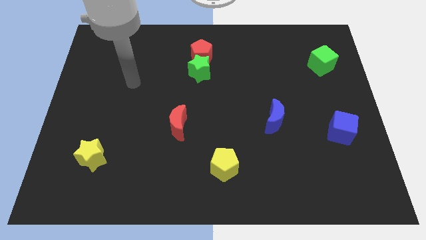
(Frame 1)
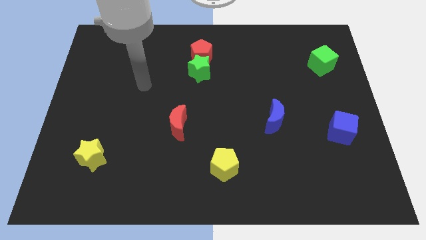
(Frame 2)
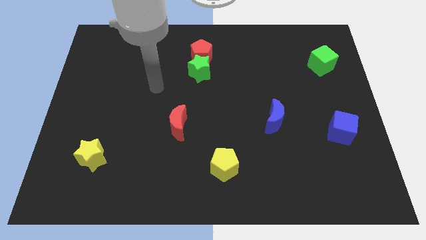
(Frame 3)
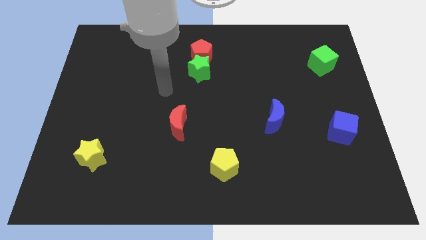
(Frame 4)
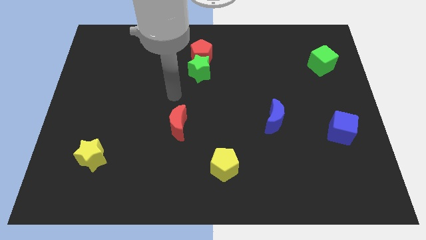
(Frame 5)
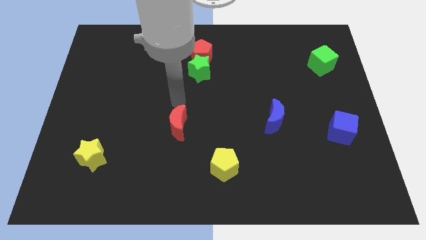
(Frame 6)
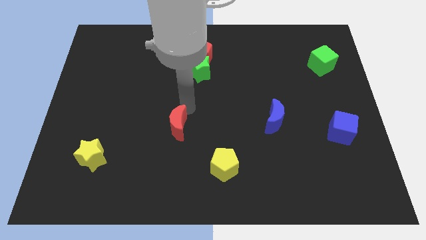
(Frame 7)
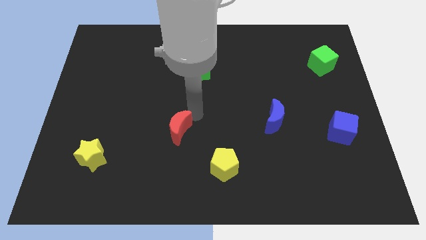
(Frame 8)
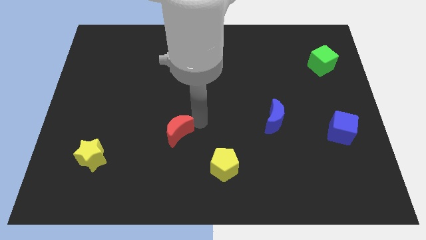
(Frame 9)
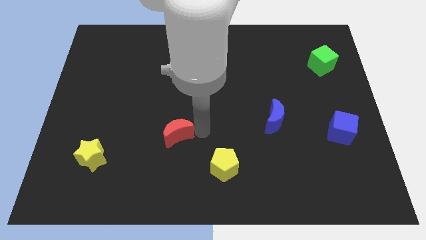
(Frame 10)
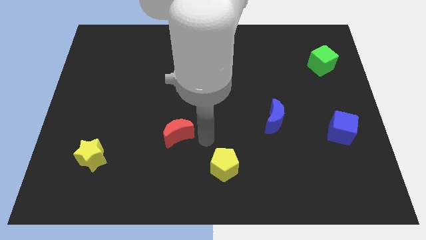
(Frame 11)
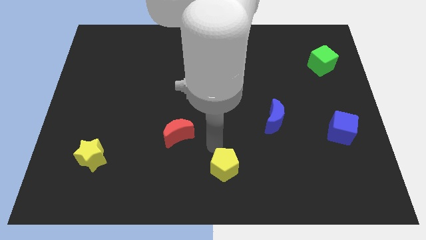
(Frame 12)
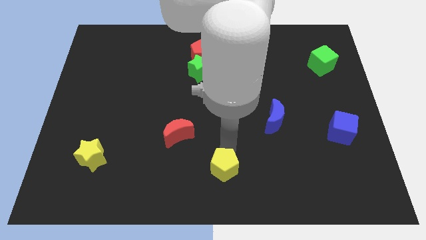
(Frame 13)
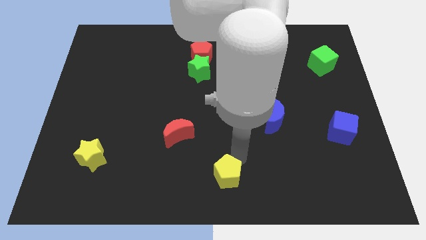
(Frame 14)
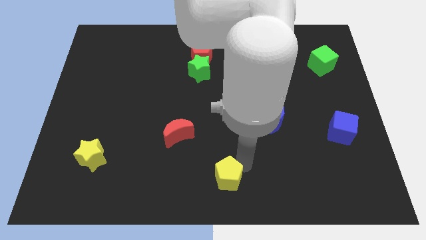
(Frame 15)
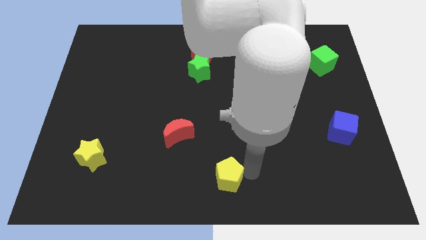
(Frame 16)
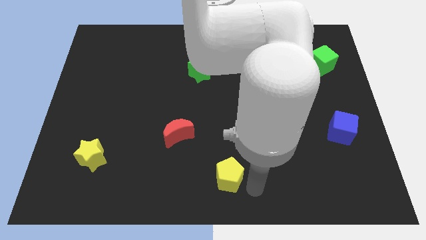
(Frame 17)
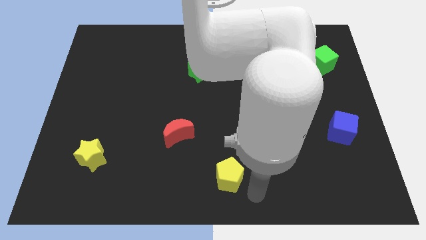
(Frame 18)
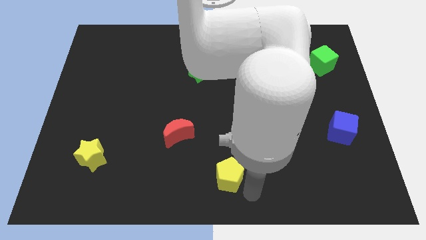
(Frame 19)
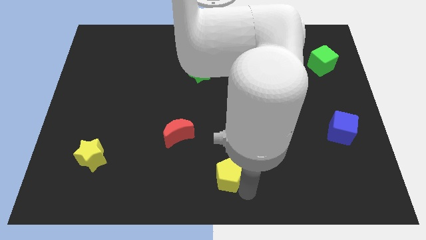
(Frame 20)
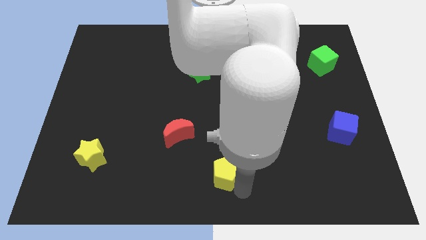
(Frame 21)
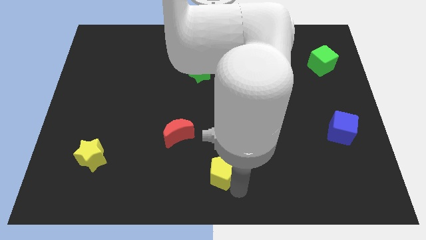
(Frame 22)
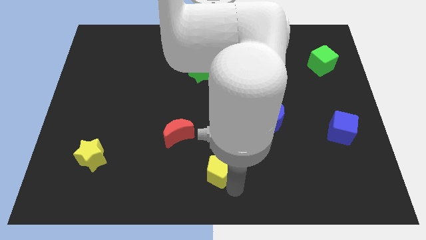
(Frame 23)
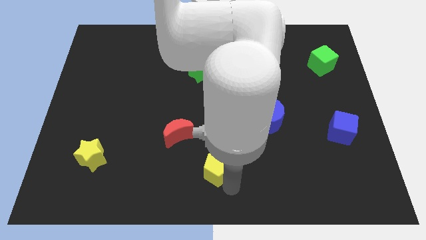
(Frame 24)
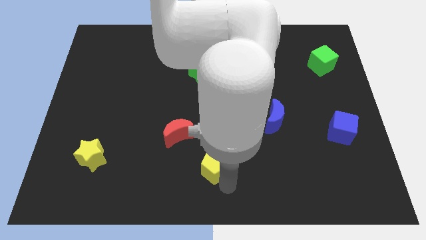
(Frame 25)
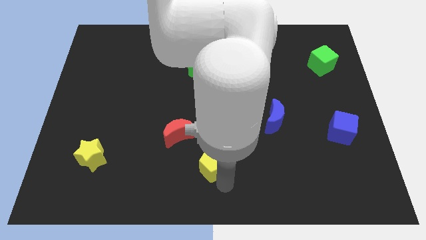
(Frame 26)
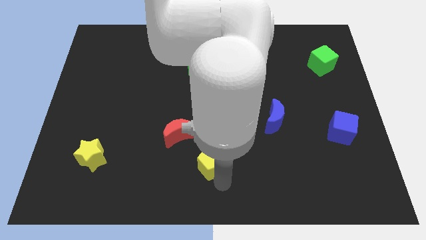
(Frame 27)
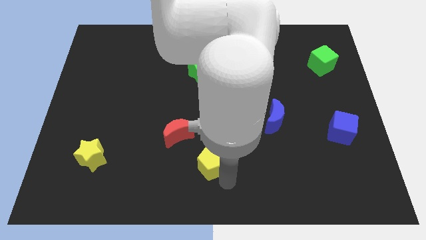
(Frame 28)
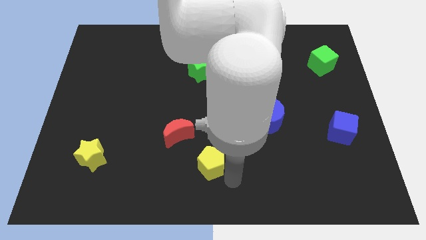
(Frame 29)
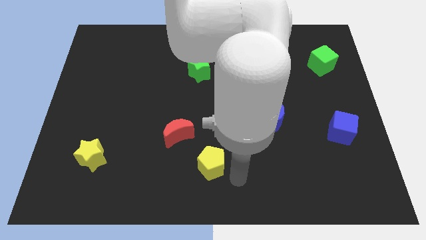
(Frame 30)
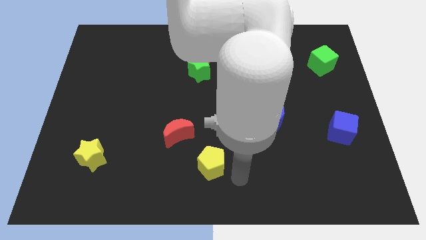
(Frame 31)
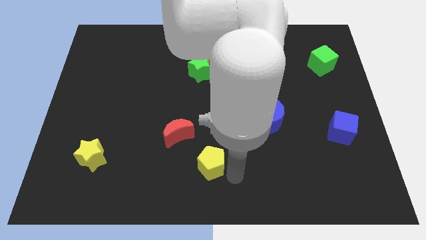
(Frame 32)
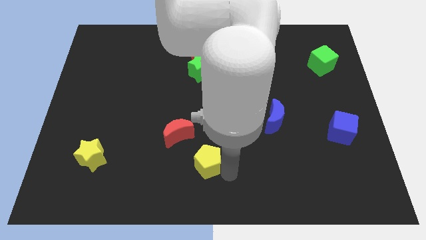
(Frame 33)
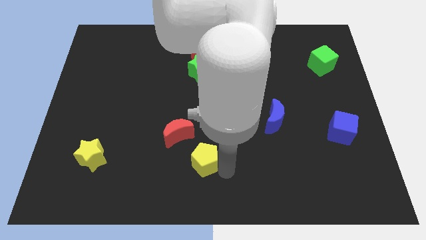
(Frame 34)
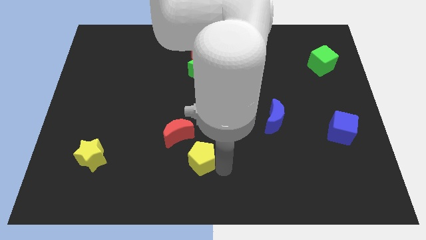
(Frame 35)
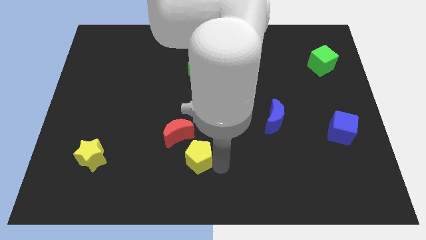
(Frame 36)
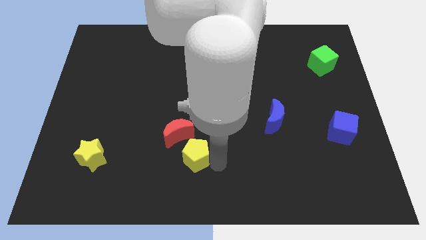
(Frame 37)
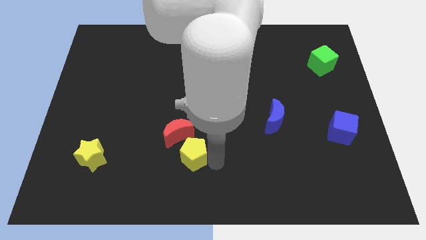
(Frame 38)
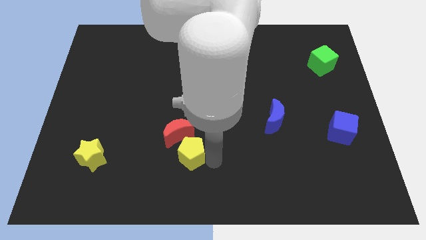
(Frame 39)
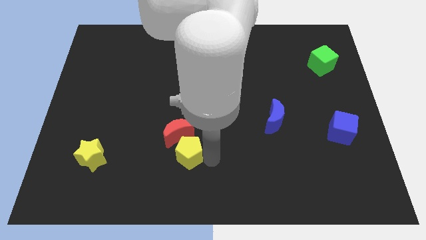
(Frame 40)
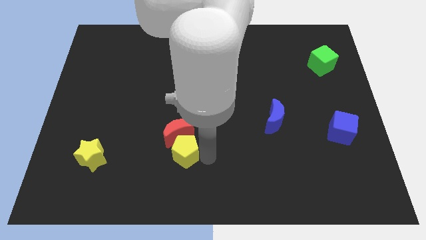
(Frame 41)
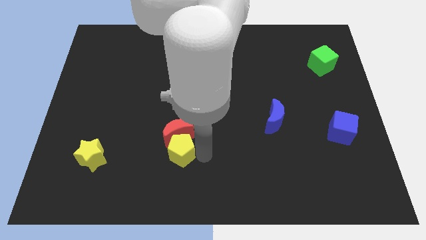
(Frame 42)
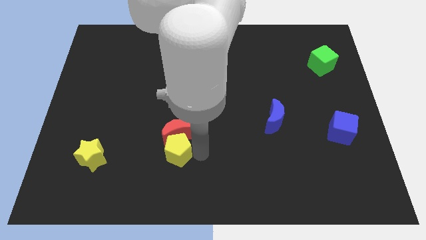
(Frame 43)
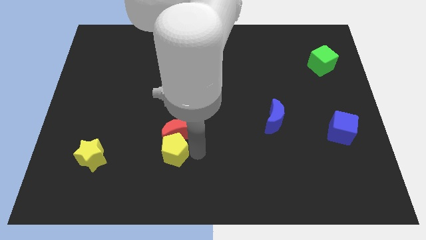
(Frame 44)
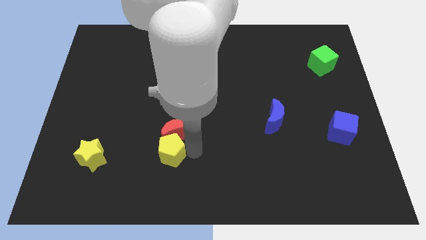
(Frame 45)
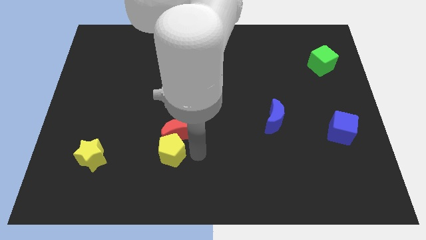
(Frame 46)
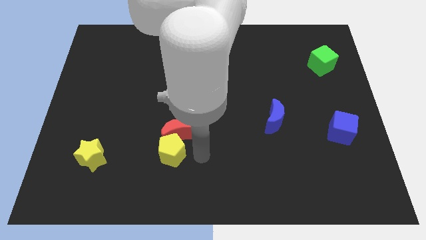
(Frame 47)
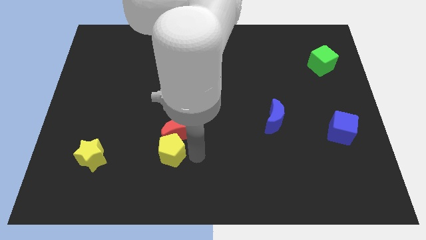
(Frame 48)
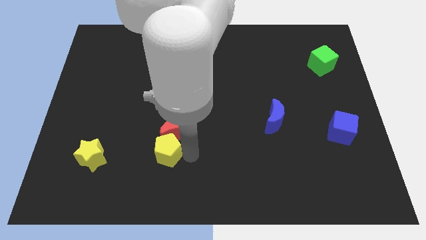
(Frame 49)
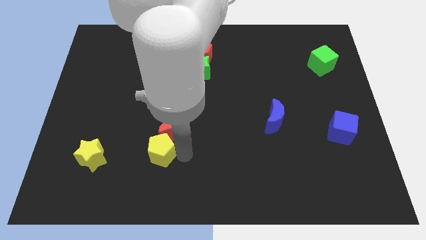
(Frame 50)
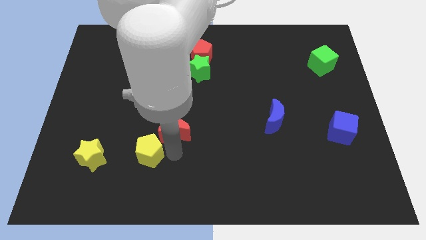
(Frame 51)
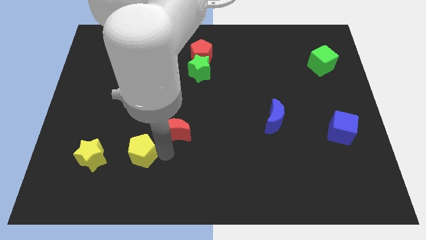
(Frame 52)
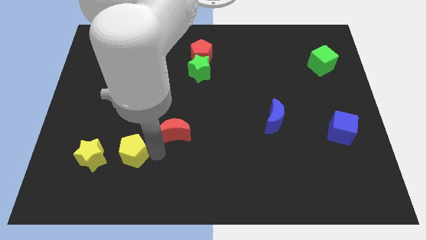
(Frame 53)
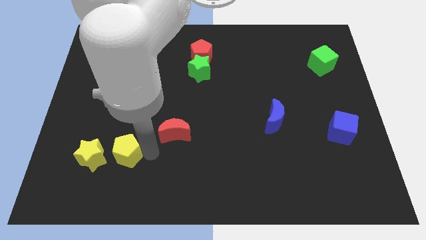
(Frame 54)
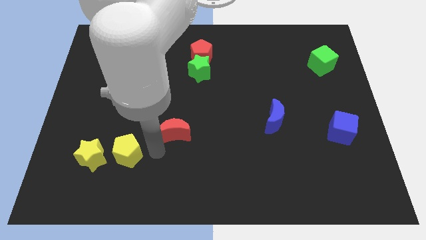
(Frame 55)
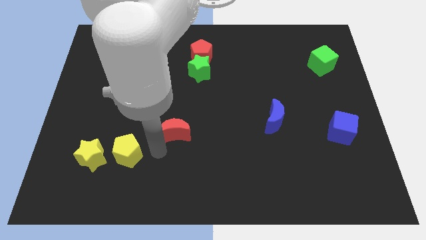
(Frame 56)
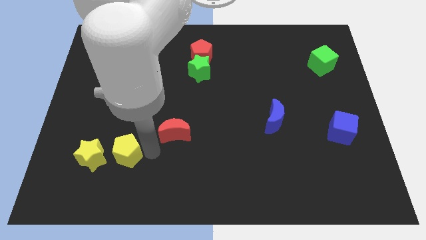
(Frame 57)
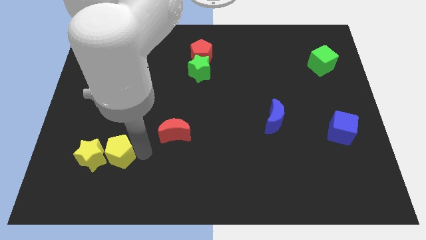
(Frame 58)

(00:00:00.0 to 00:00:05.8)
slide the yellow pentagon next to the yellow star

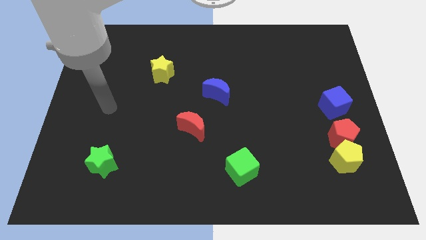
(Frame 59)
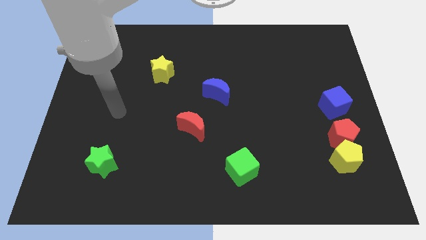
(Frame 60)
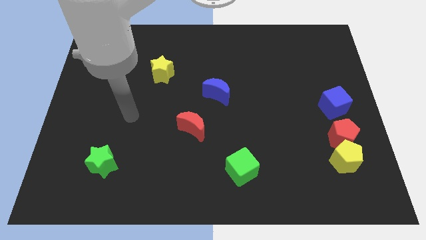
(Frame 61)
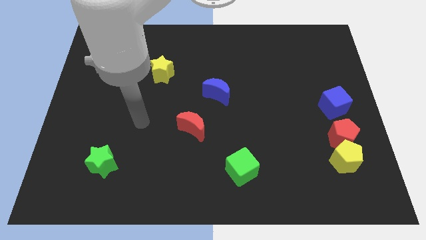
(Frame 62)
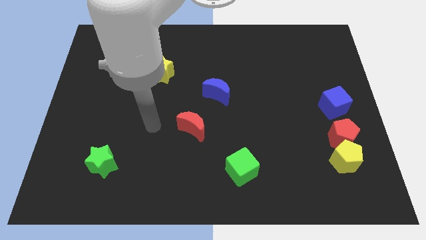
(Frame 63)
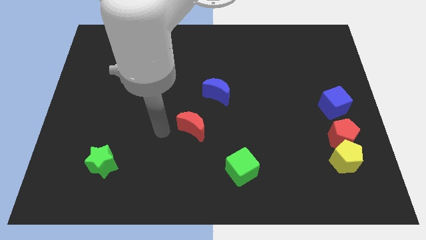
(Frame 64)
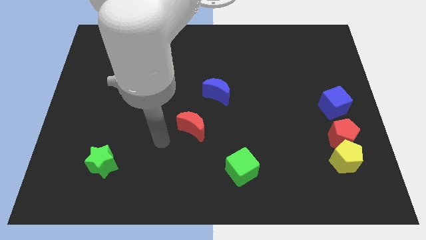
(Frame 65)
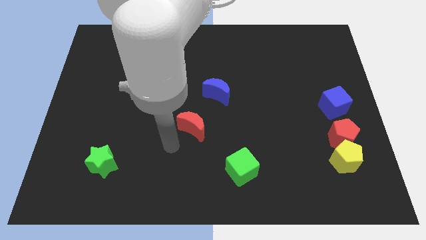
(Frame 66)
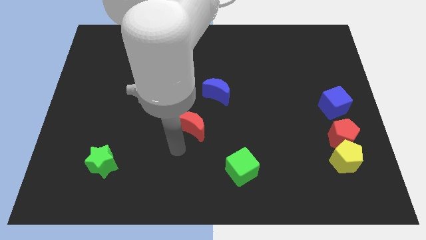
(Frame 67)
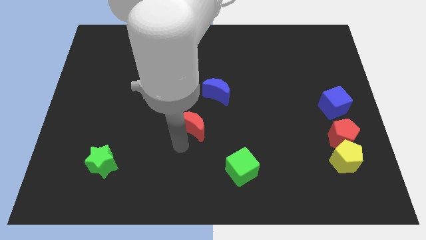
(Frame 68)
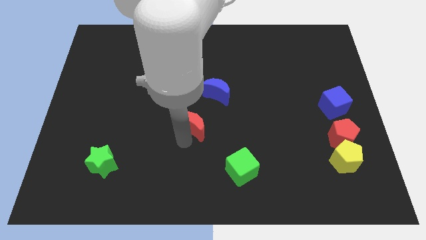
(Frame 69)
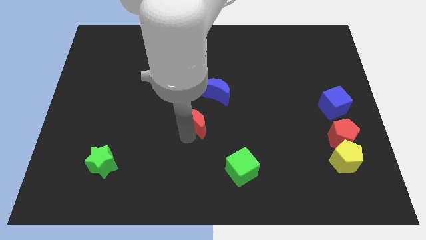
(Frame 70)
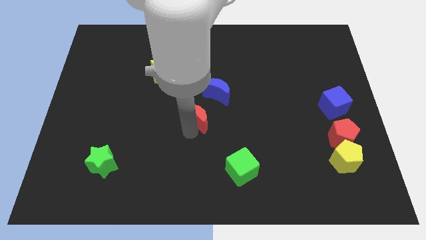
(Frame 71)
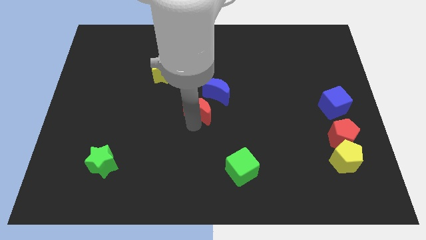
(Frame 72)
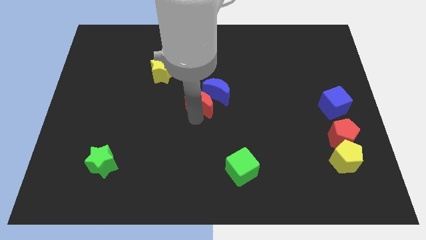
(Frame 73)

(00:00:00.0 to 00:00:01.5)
slide the red moon close to the blue moon

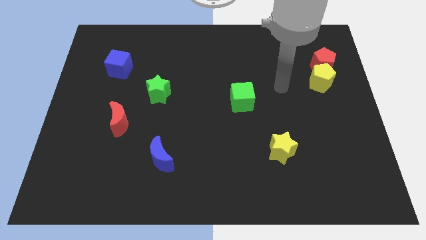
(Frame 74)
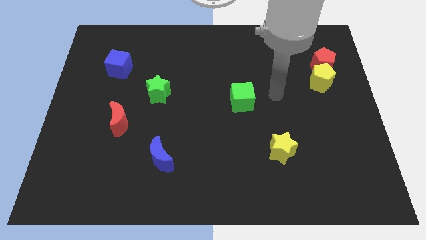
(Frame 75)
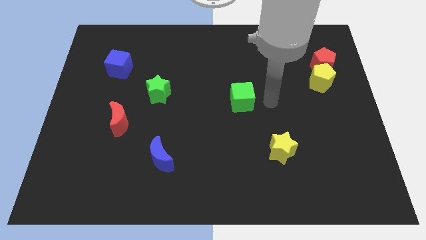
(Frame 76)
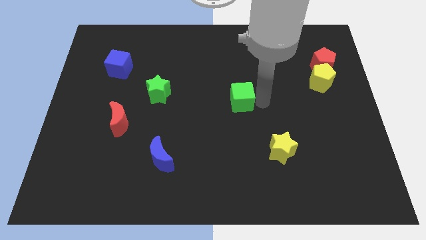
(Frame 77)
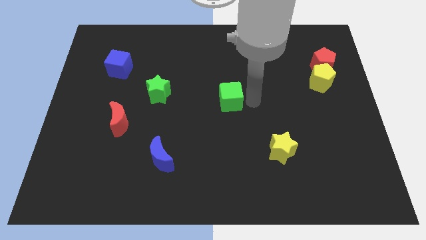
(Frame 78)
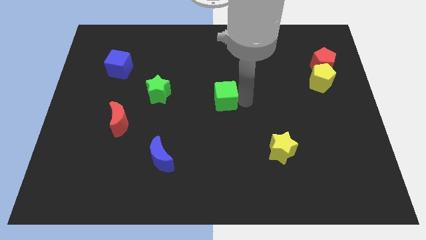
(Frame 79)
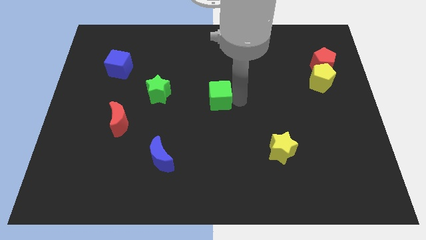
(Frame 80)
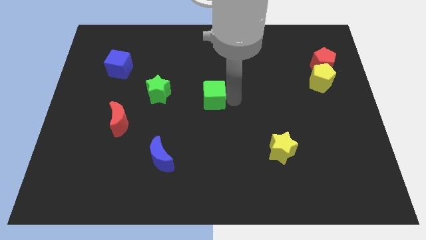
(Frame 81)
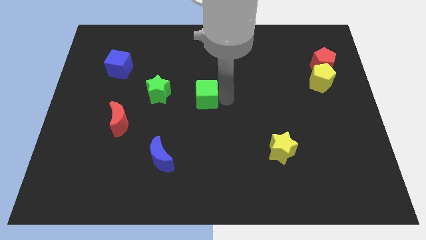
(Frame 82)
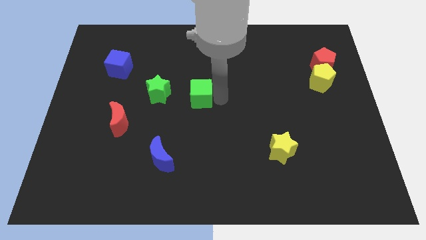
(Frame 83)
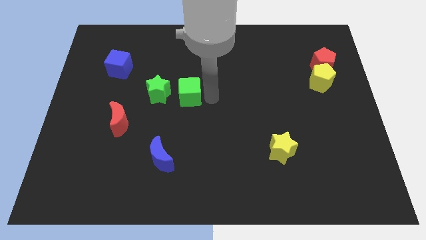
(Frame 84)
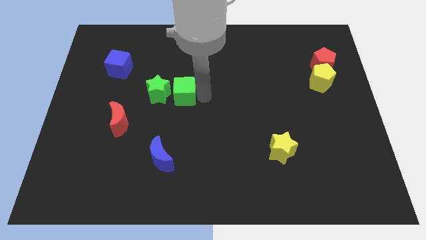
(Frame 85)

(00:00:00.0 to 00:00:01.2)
move the green cube towards the green star
